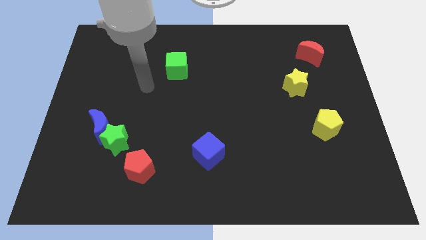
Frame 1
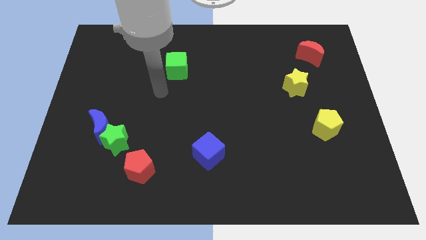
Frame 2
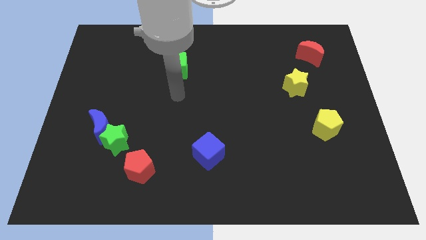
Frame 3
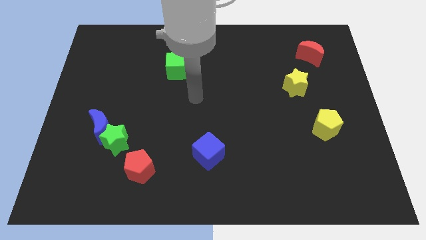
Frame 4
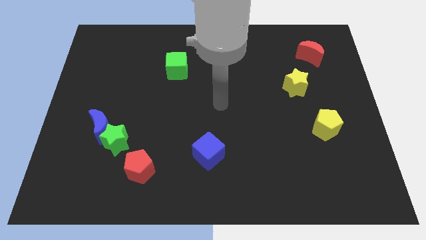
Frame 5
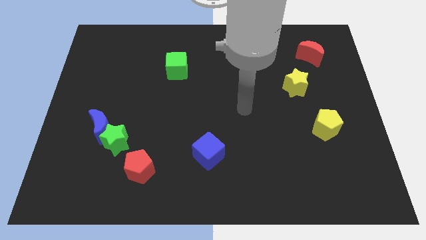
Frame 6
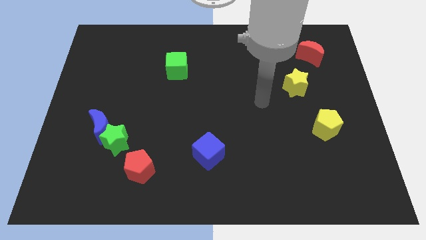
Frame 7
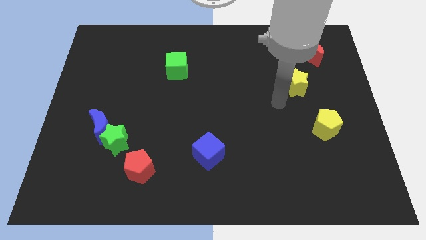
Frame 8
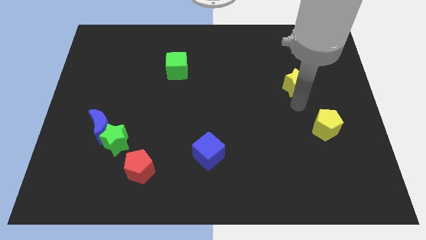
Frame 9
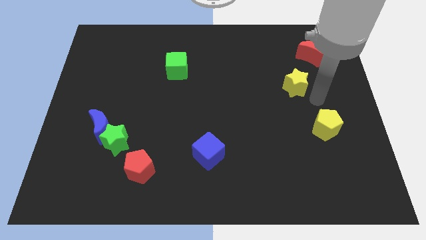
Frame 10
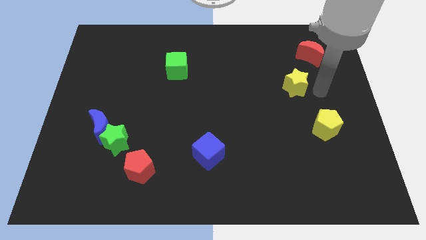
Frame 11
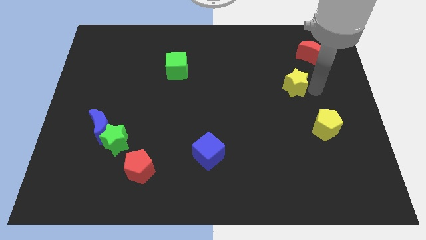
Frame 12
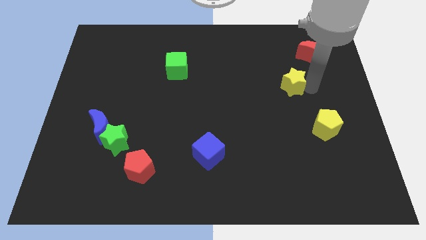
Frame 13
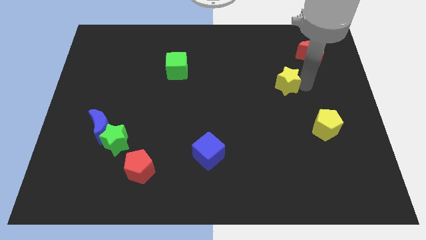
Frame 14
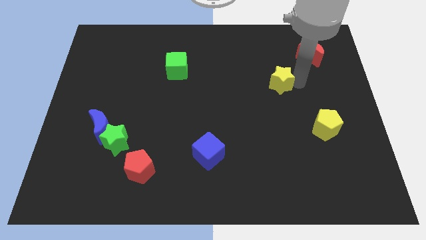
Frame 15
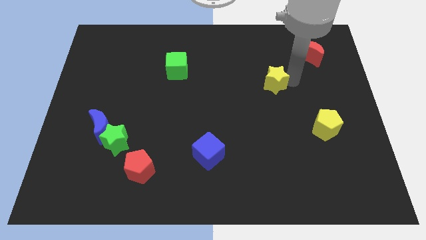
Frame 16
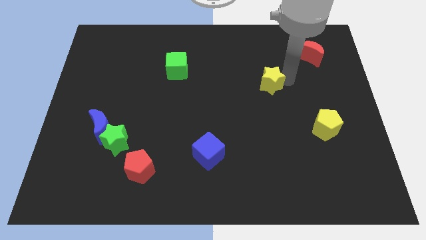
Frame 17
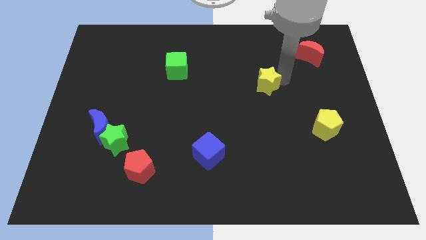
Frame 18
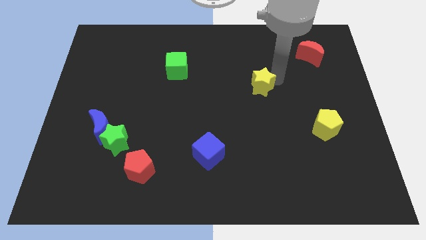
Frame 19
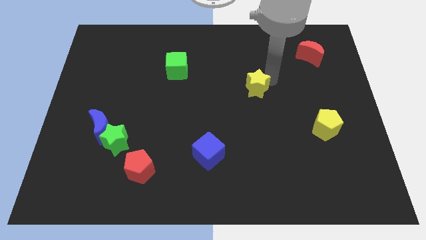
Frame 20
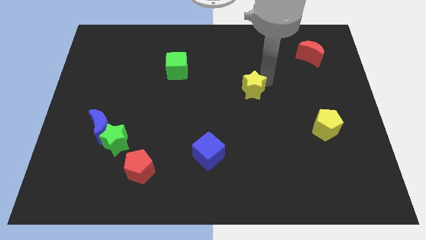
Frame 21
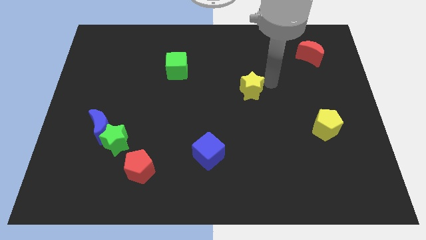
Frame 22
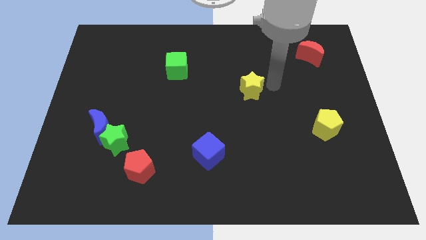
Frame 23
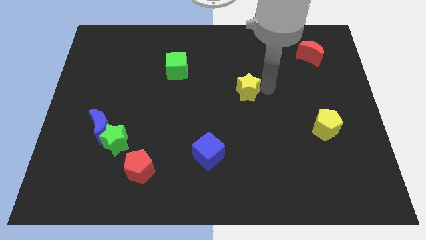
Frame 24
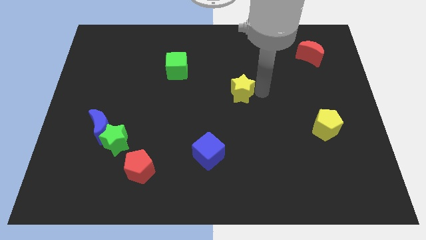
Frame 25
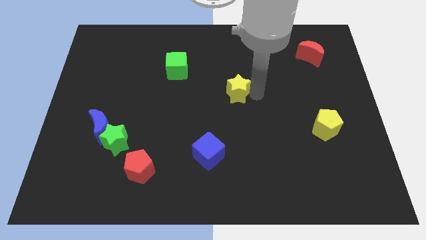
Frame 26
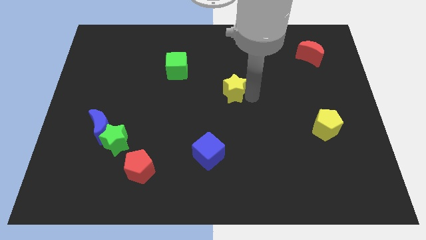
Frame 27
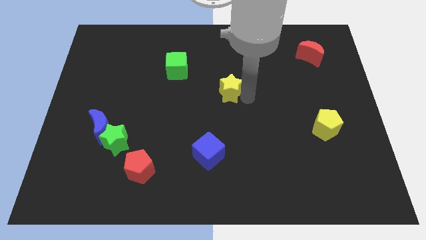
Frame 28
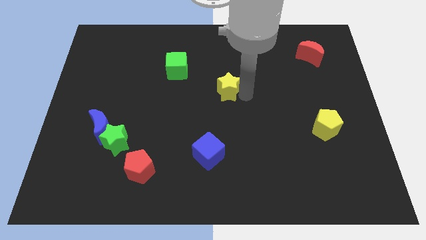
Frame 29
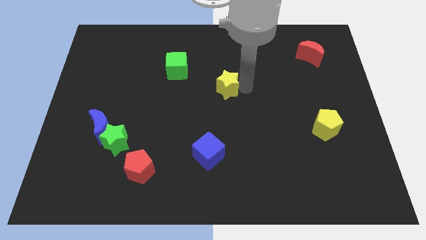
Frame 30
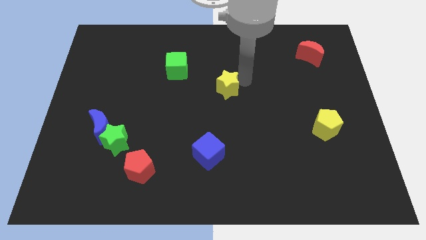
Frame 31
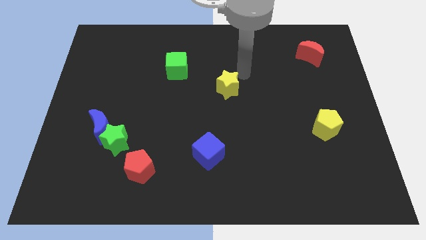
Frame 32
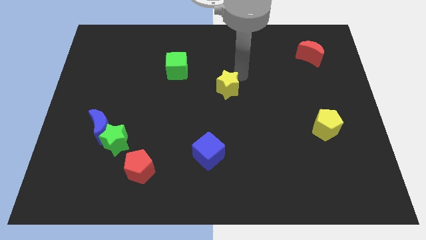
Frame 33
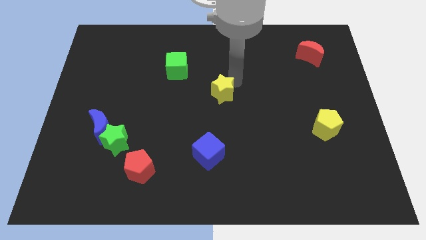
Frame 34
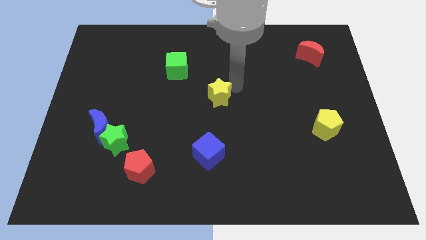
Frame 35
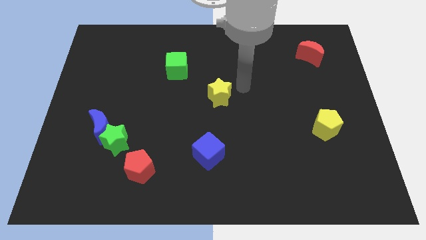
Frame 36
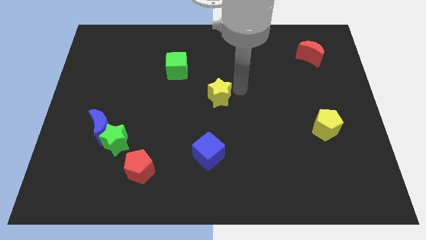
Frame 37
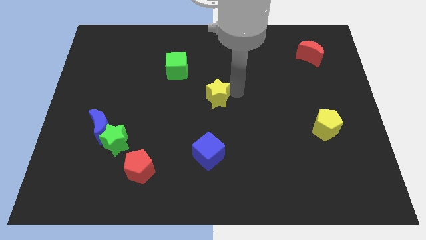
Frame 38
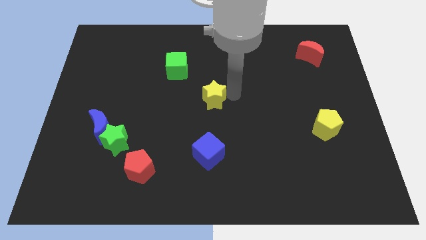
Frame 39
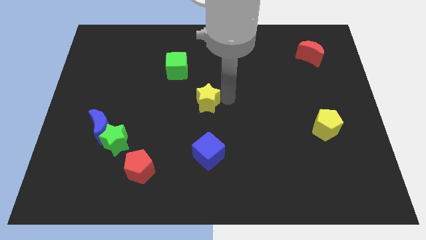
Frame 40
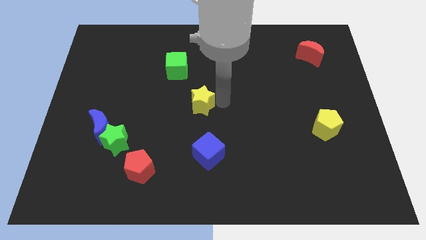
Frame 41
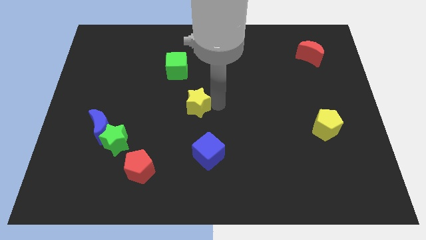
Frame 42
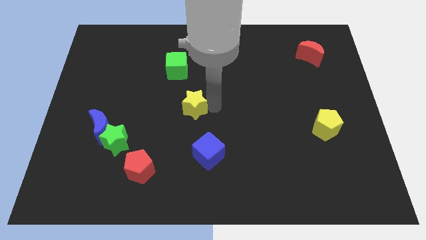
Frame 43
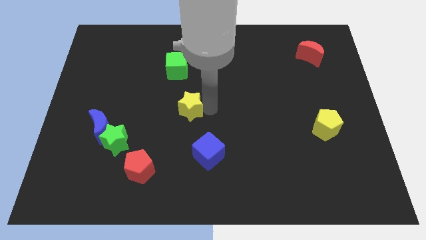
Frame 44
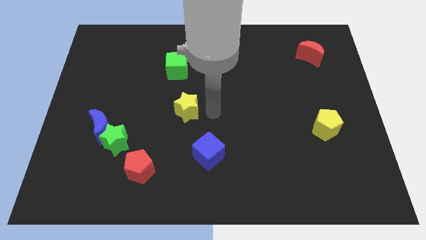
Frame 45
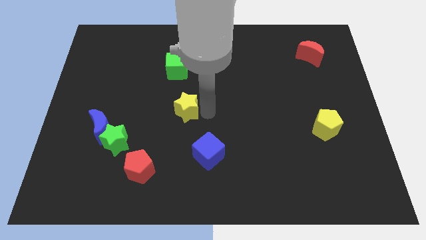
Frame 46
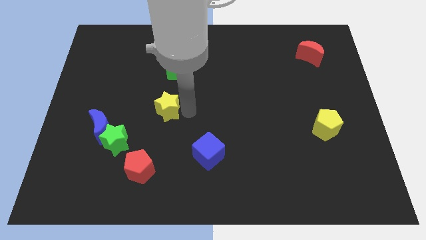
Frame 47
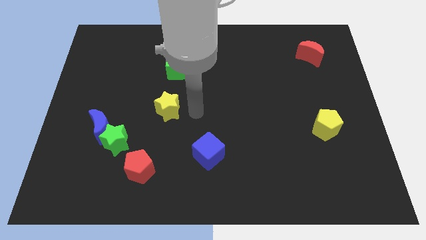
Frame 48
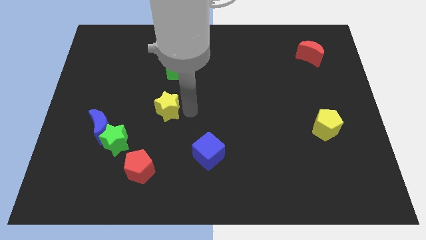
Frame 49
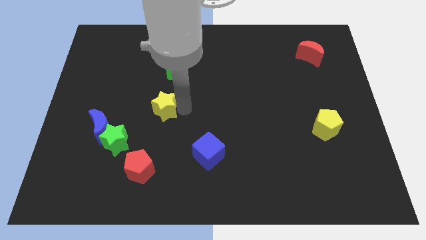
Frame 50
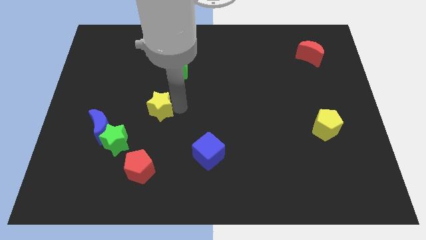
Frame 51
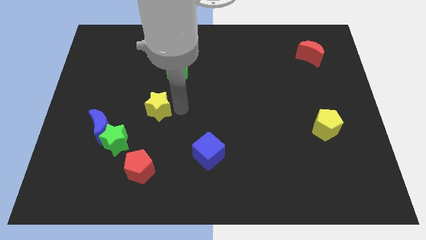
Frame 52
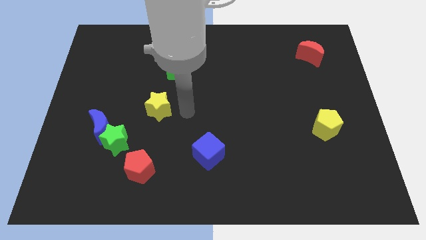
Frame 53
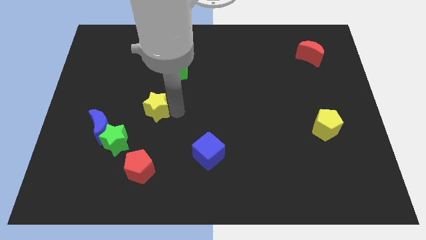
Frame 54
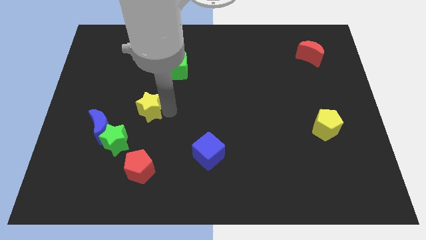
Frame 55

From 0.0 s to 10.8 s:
slide the yellow star diagonally up and to the right of the blue moon

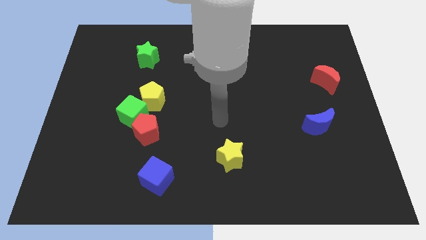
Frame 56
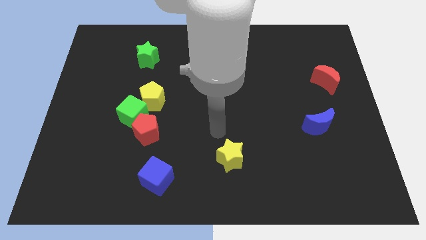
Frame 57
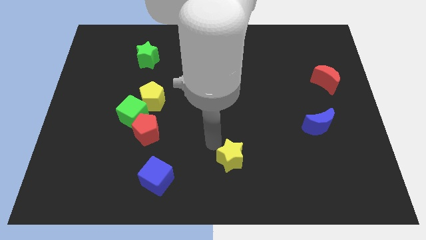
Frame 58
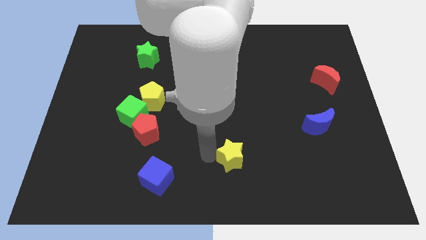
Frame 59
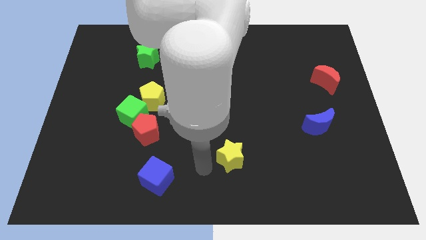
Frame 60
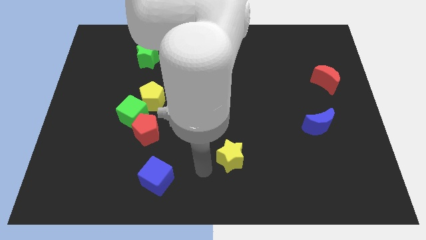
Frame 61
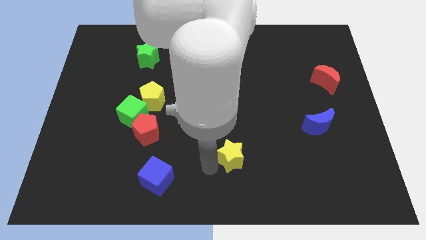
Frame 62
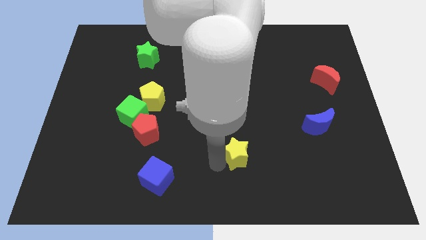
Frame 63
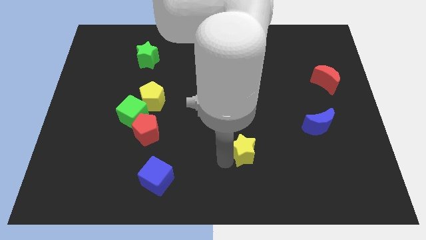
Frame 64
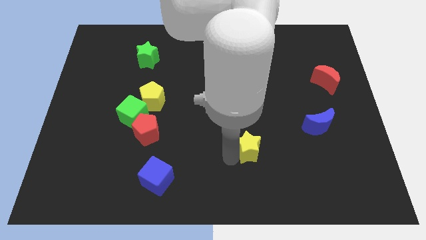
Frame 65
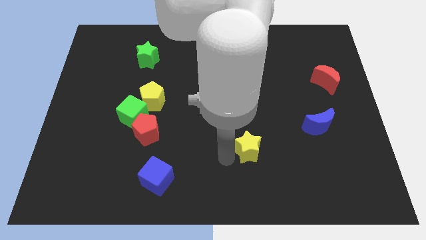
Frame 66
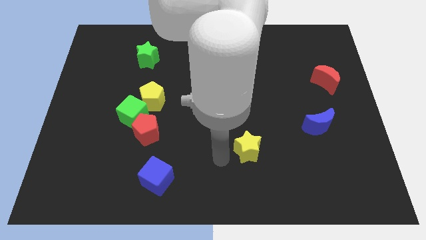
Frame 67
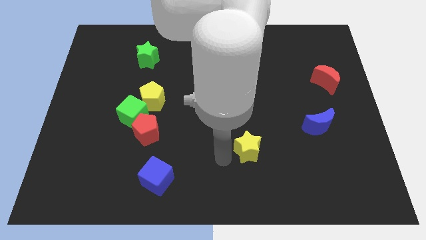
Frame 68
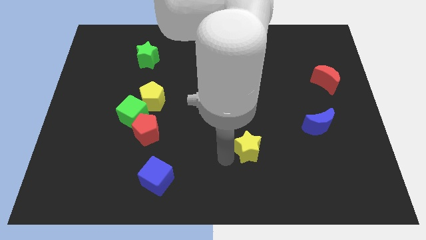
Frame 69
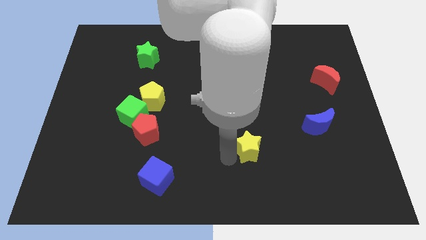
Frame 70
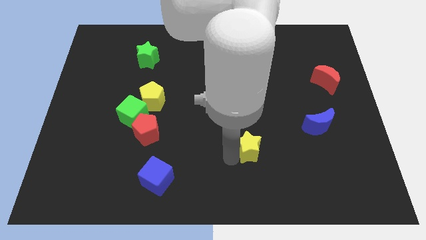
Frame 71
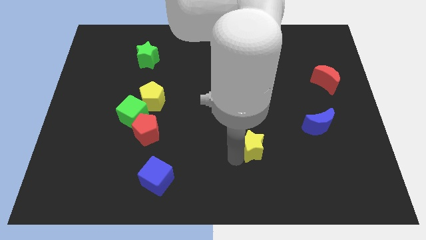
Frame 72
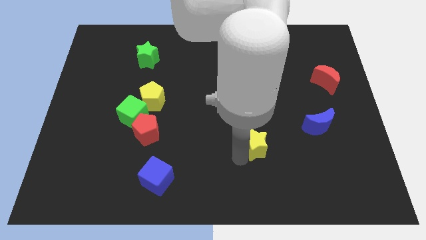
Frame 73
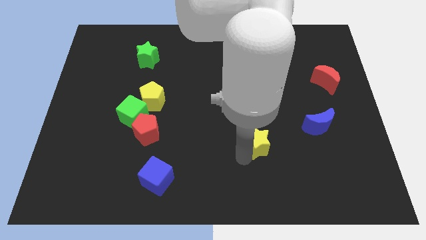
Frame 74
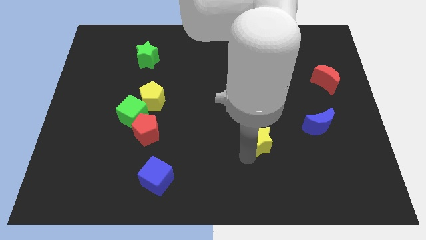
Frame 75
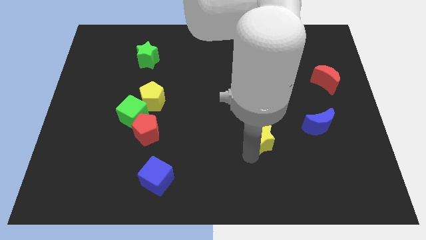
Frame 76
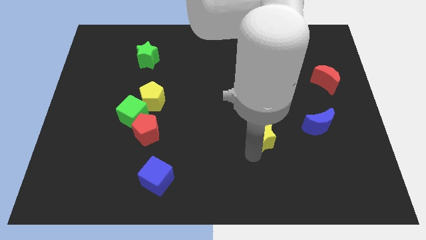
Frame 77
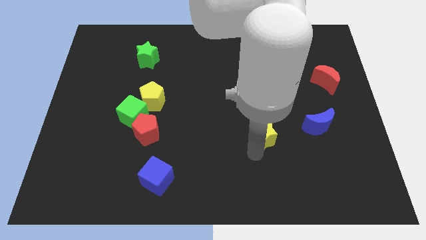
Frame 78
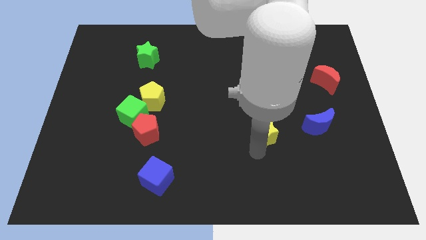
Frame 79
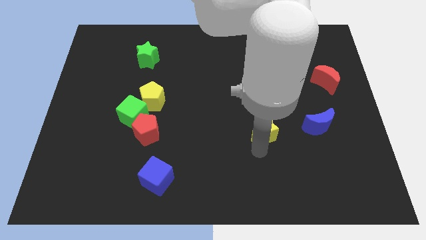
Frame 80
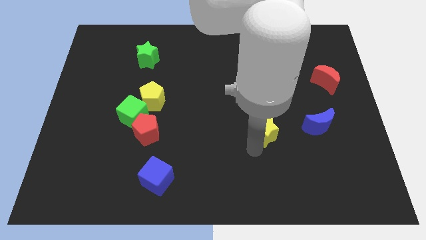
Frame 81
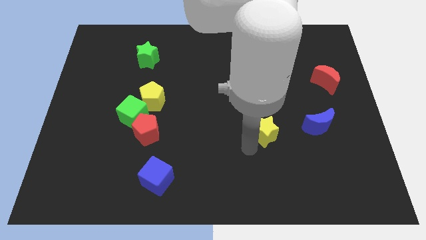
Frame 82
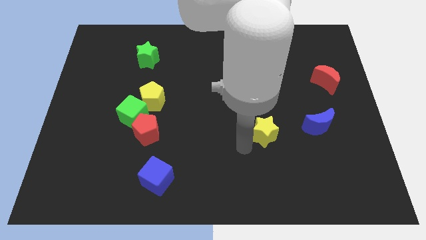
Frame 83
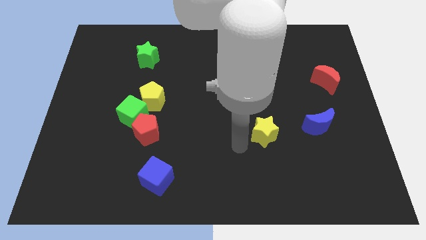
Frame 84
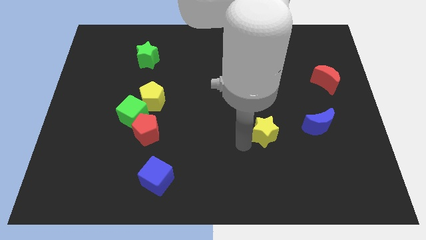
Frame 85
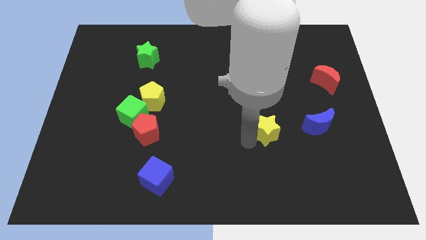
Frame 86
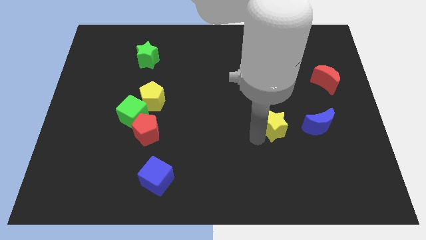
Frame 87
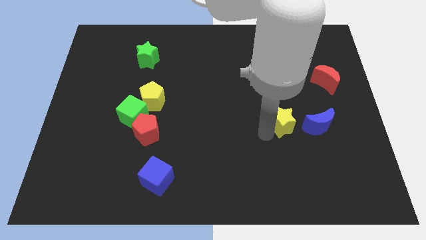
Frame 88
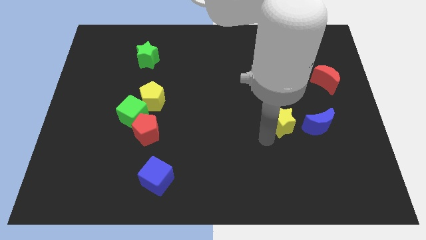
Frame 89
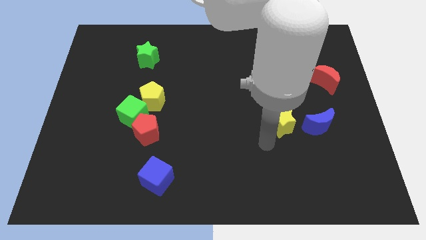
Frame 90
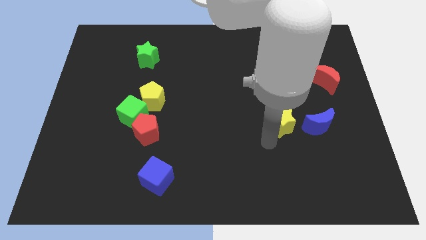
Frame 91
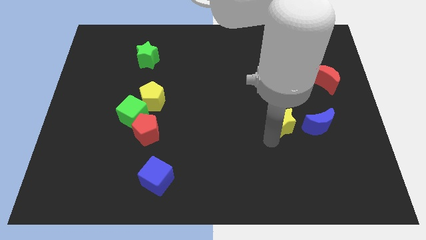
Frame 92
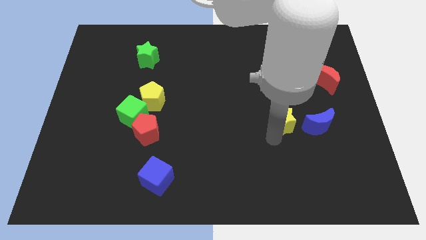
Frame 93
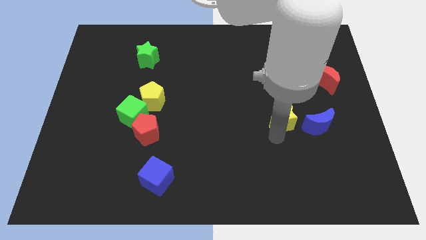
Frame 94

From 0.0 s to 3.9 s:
slide the yellow star to the top left side of the blue moon
